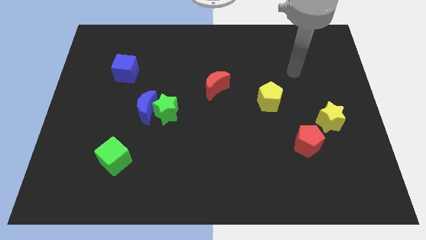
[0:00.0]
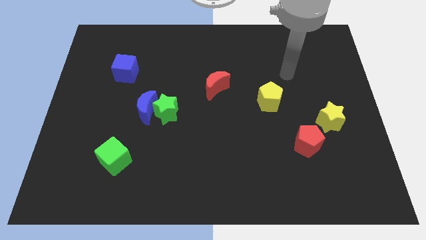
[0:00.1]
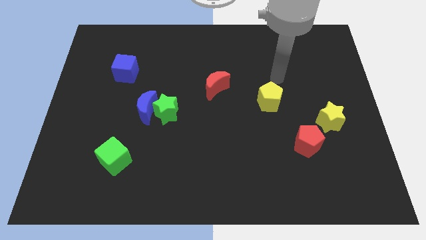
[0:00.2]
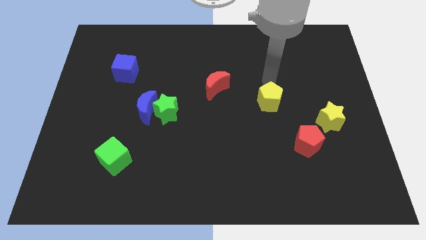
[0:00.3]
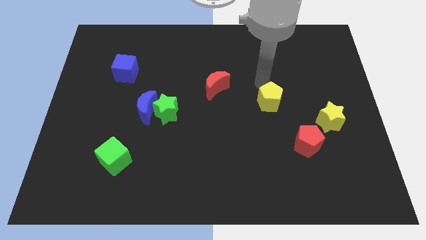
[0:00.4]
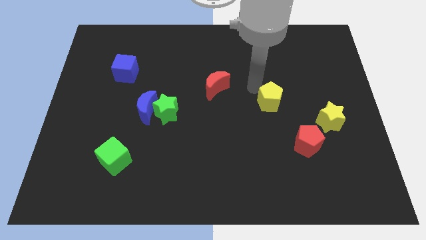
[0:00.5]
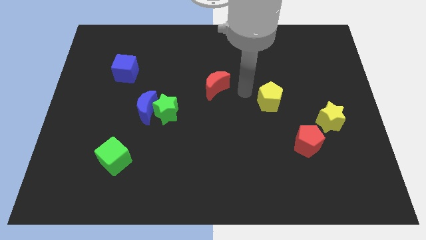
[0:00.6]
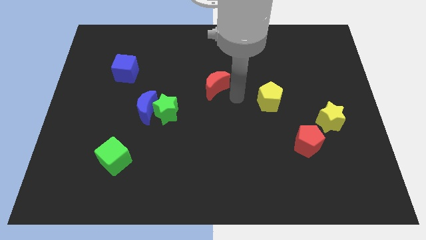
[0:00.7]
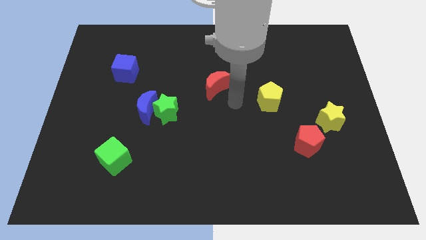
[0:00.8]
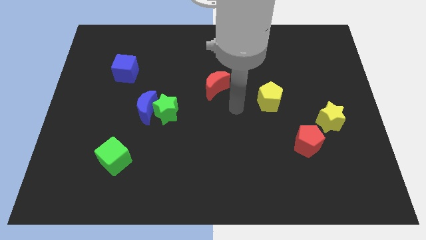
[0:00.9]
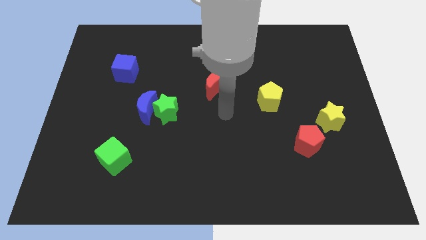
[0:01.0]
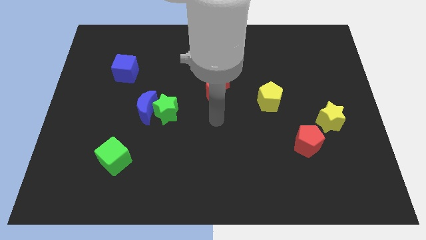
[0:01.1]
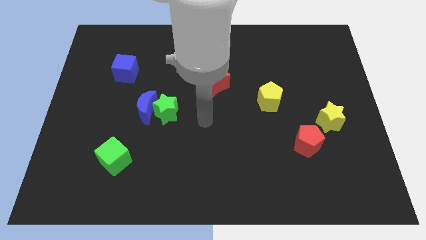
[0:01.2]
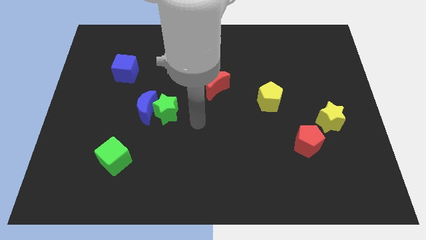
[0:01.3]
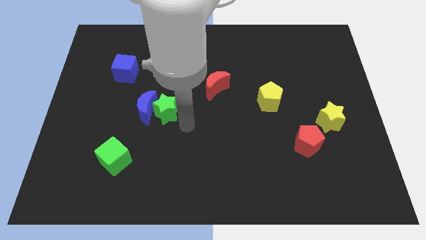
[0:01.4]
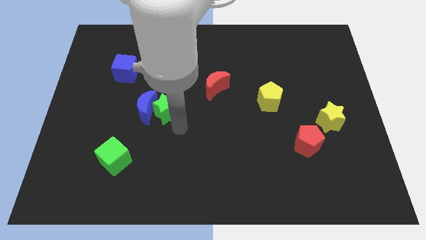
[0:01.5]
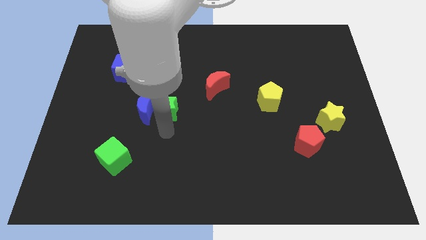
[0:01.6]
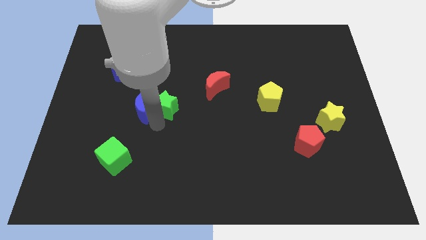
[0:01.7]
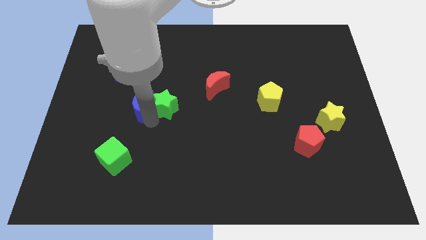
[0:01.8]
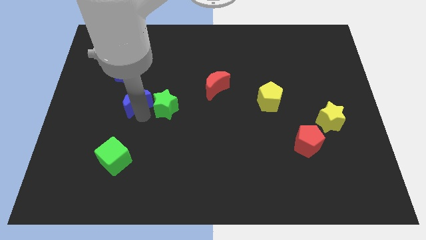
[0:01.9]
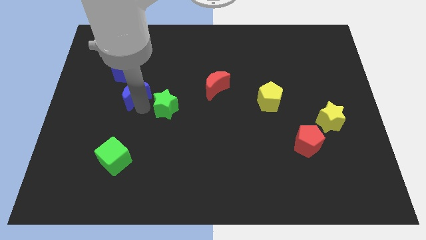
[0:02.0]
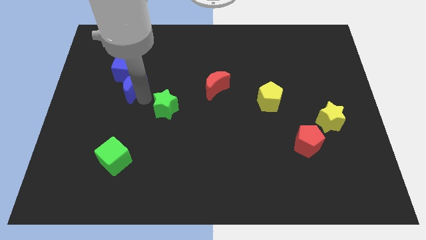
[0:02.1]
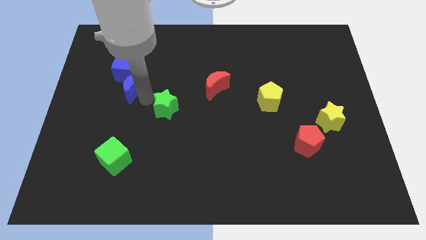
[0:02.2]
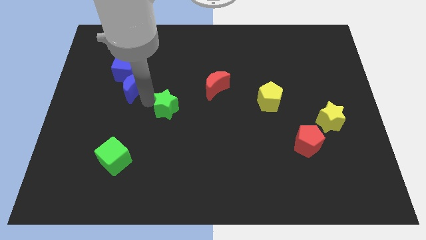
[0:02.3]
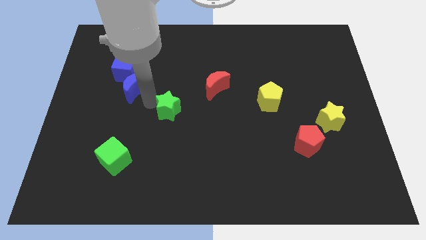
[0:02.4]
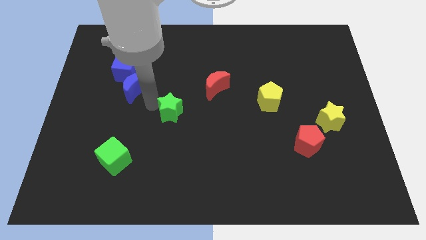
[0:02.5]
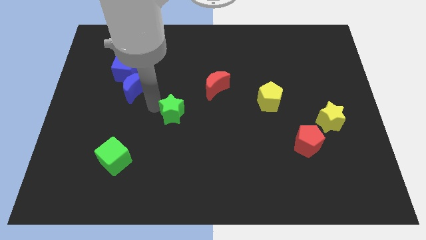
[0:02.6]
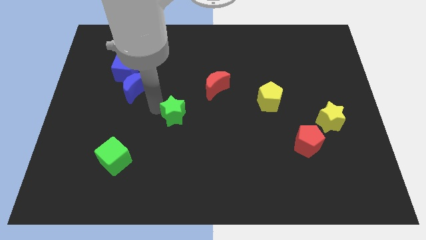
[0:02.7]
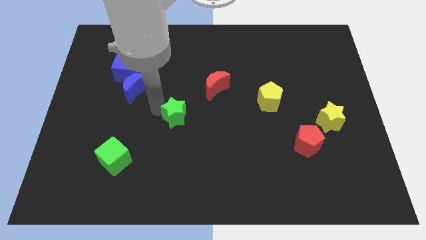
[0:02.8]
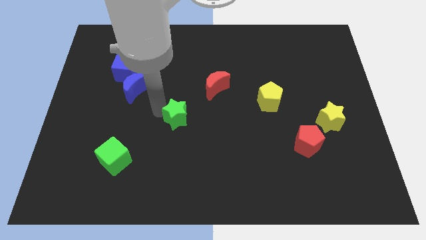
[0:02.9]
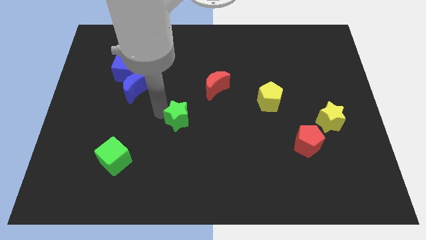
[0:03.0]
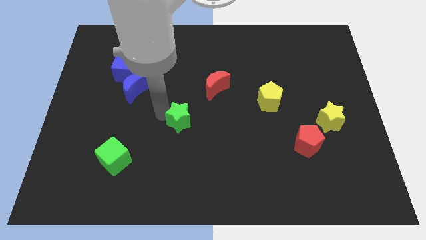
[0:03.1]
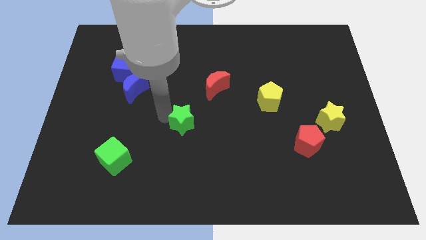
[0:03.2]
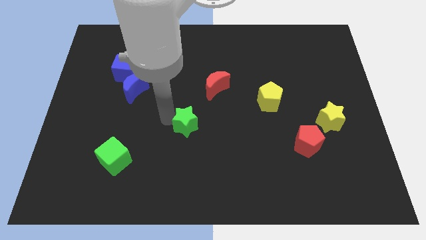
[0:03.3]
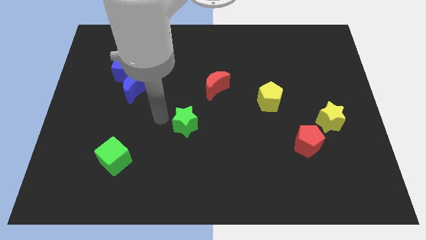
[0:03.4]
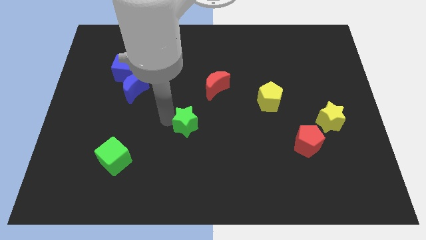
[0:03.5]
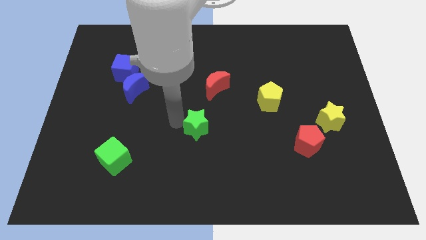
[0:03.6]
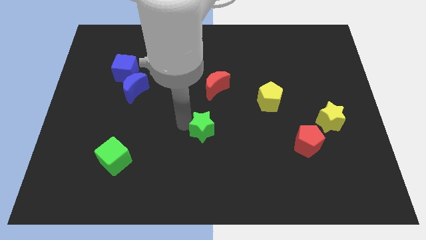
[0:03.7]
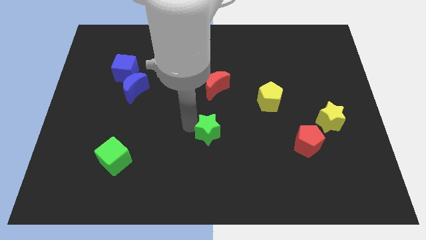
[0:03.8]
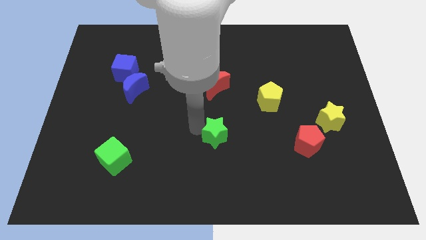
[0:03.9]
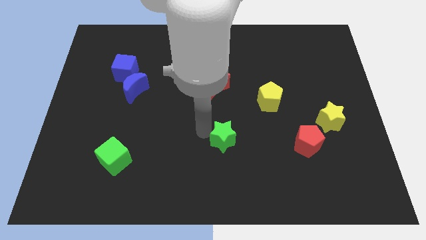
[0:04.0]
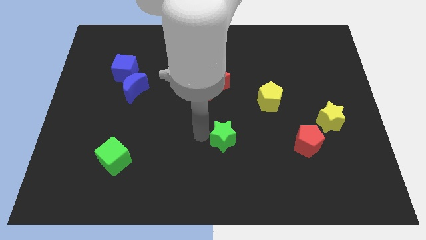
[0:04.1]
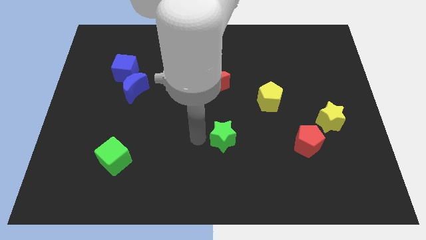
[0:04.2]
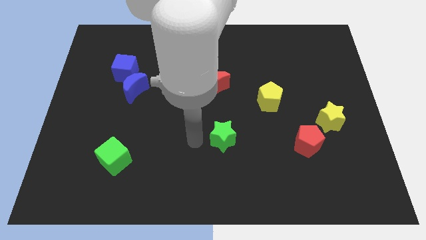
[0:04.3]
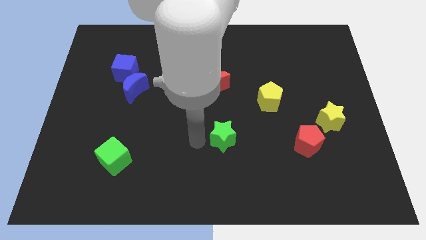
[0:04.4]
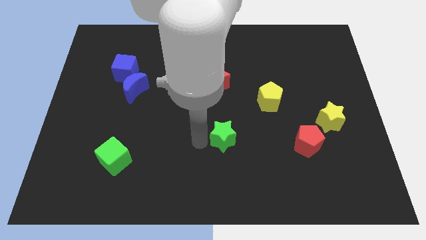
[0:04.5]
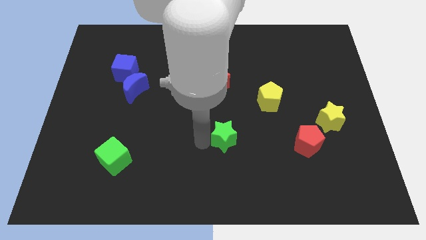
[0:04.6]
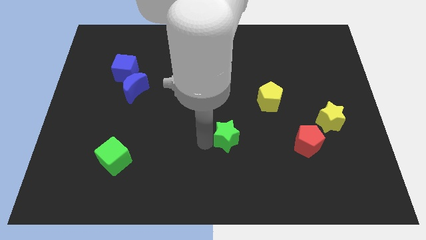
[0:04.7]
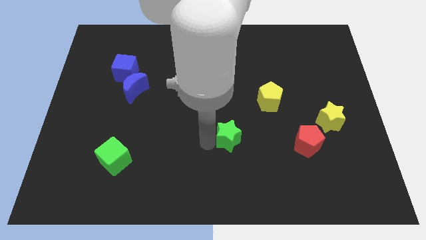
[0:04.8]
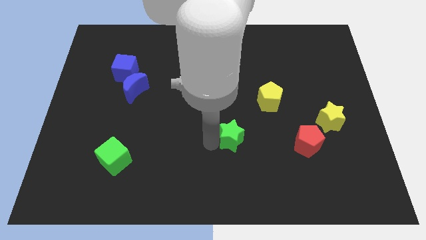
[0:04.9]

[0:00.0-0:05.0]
move the green star to the left of the red pentagon

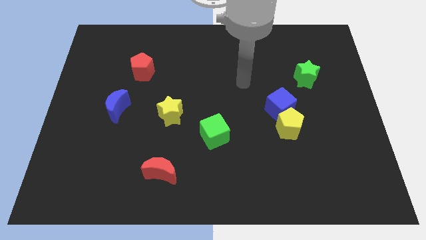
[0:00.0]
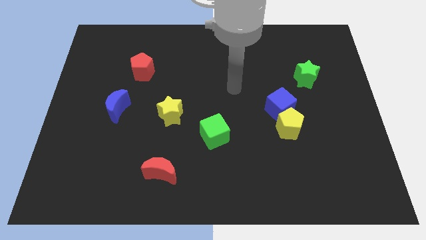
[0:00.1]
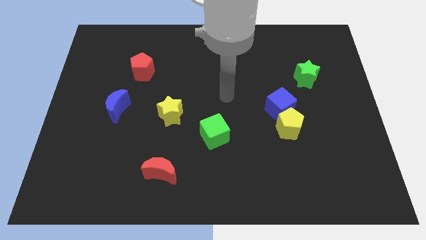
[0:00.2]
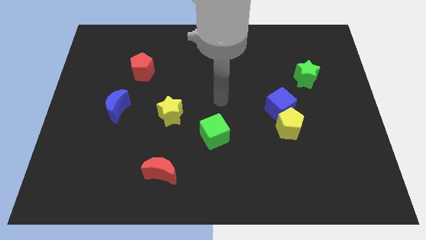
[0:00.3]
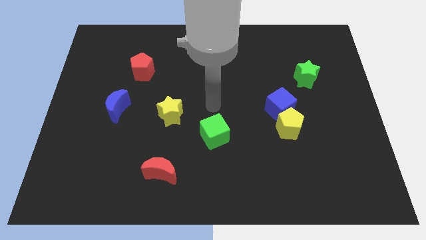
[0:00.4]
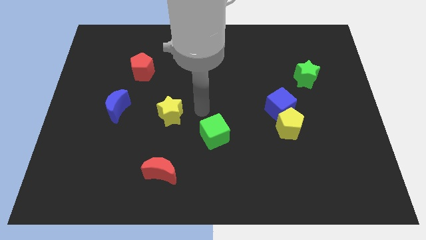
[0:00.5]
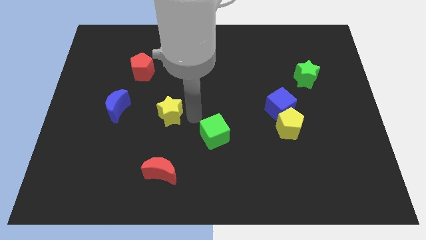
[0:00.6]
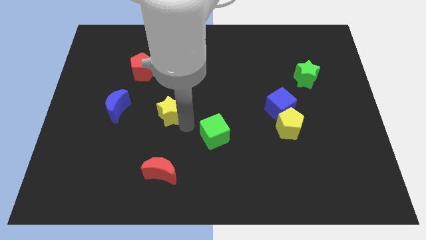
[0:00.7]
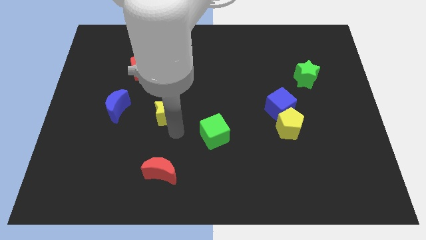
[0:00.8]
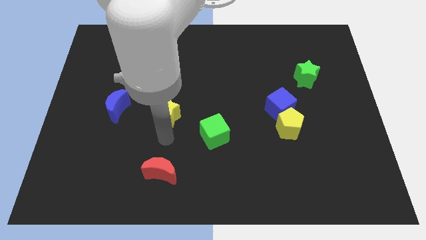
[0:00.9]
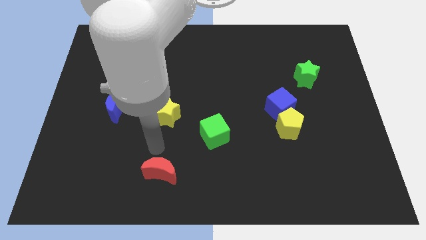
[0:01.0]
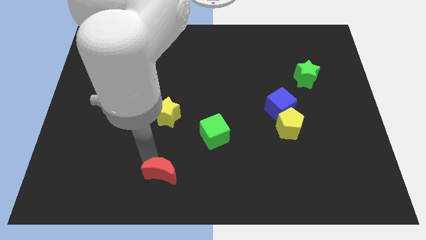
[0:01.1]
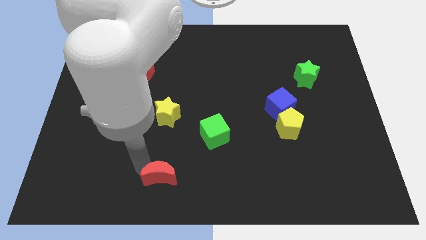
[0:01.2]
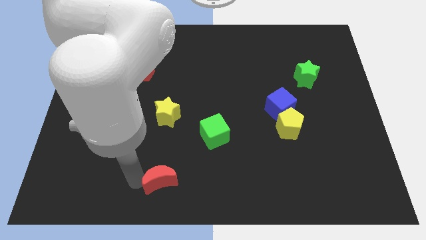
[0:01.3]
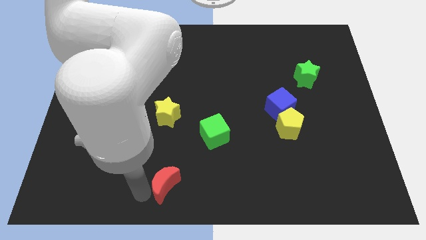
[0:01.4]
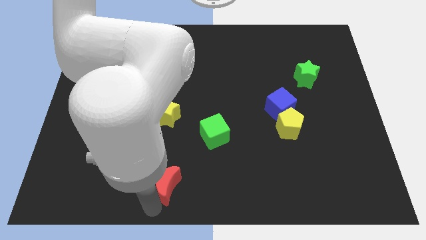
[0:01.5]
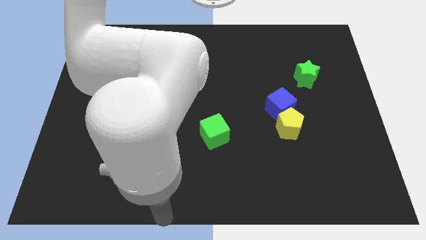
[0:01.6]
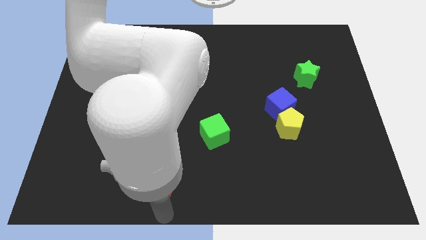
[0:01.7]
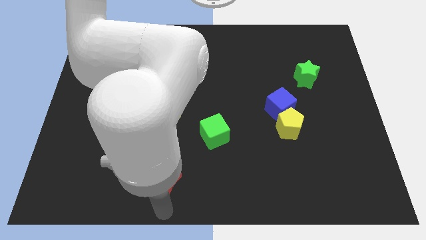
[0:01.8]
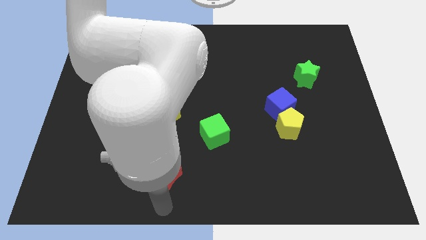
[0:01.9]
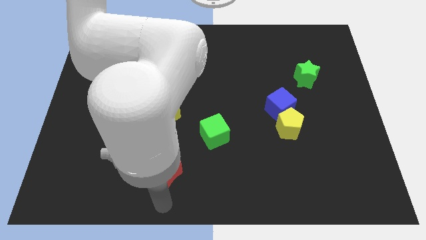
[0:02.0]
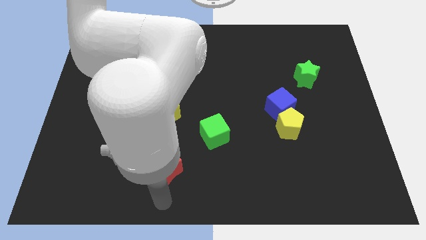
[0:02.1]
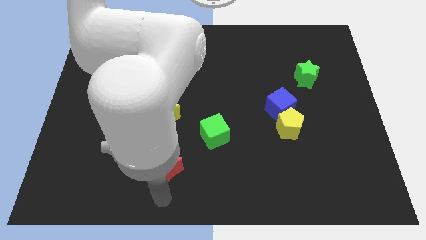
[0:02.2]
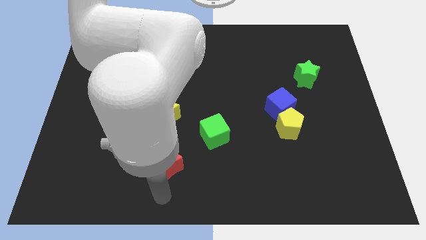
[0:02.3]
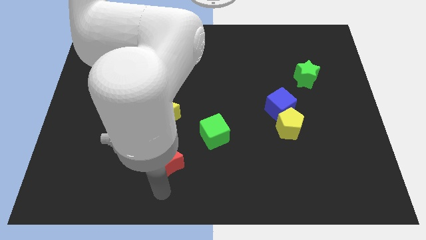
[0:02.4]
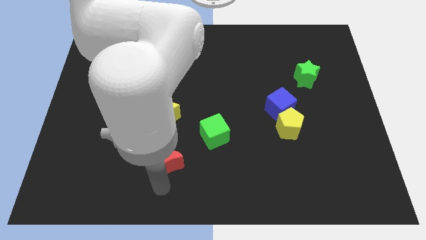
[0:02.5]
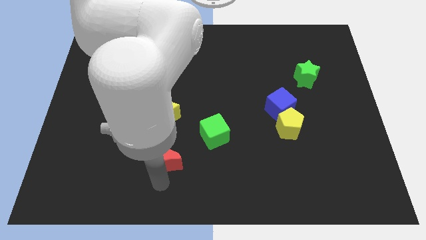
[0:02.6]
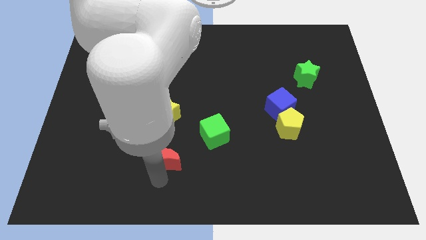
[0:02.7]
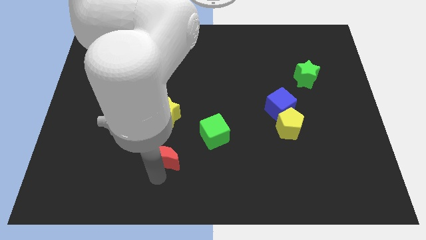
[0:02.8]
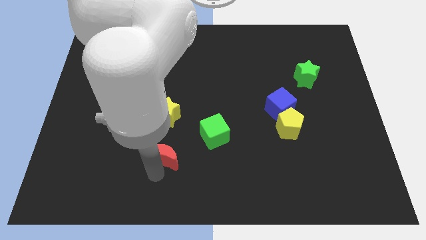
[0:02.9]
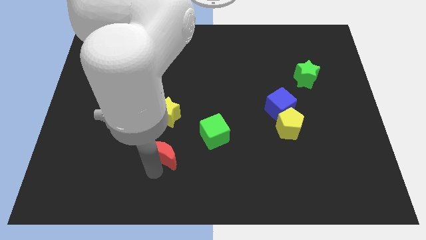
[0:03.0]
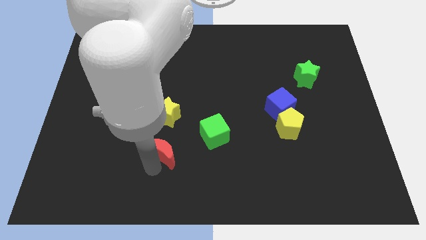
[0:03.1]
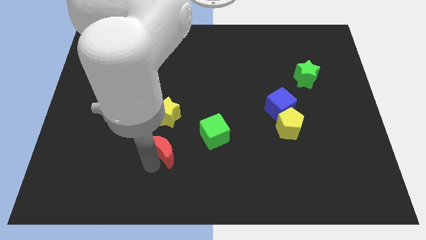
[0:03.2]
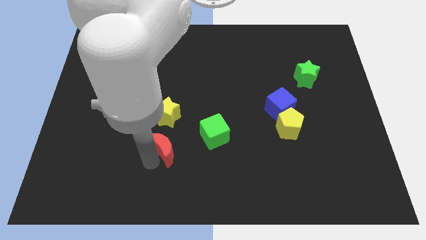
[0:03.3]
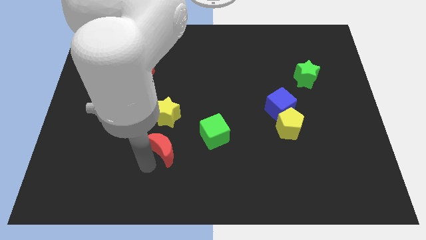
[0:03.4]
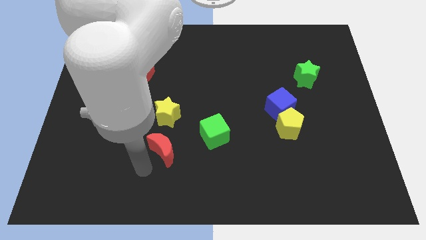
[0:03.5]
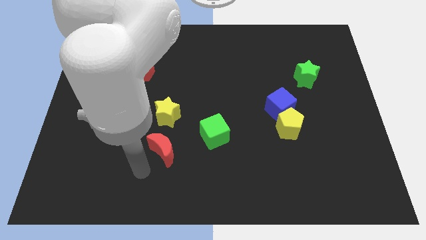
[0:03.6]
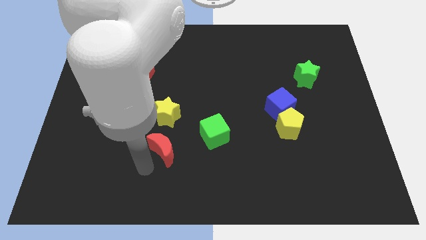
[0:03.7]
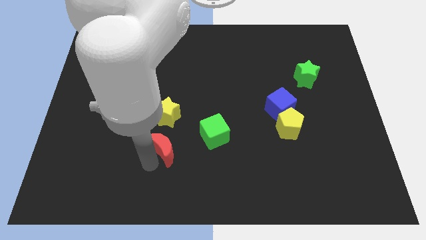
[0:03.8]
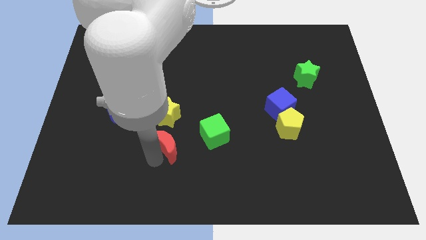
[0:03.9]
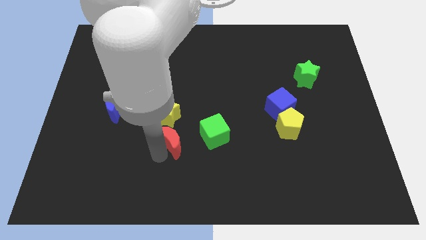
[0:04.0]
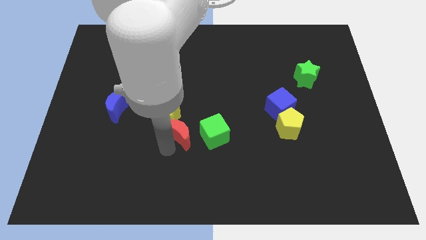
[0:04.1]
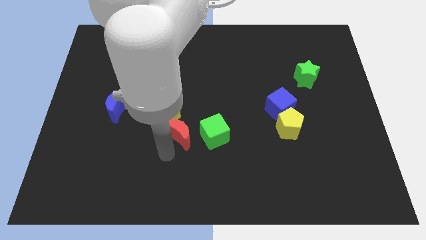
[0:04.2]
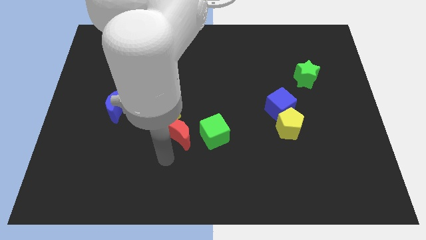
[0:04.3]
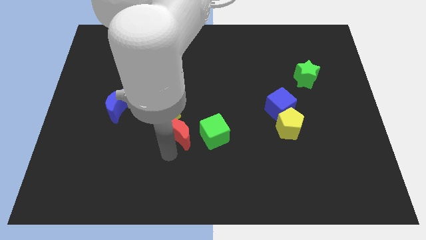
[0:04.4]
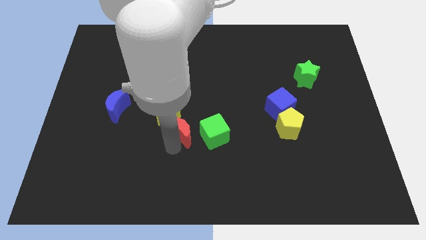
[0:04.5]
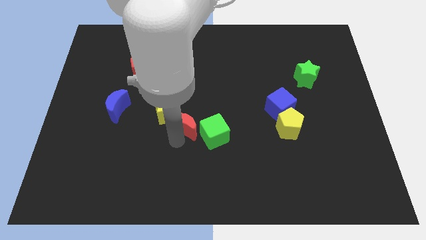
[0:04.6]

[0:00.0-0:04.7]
move the red moon to the top left side of the green cube
